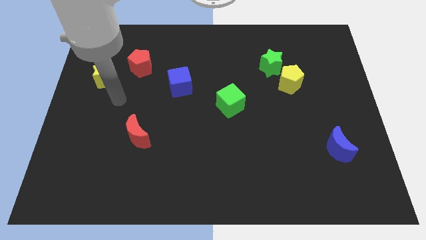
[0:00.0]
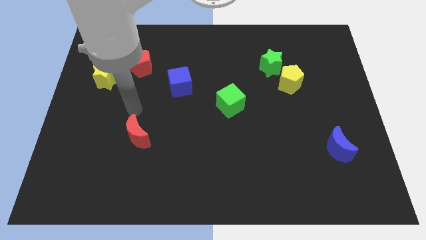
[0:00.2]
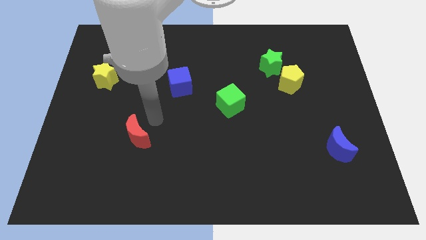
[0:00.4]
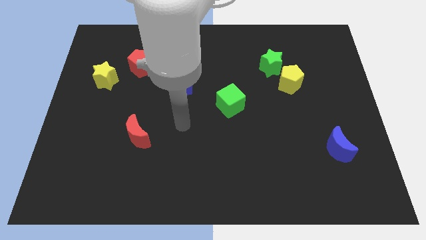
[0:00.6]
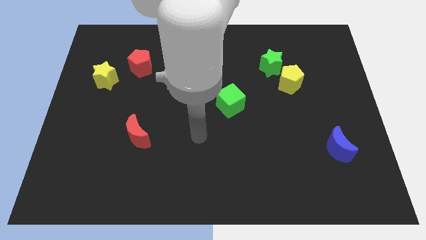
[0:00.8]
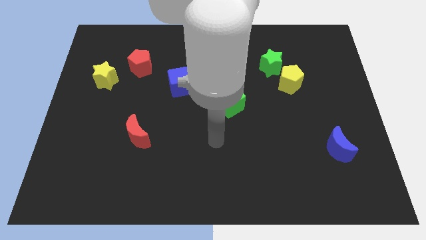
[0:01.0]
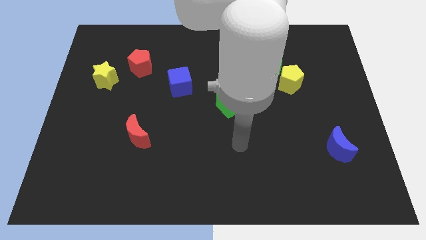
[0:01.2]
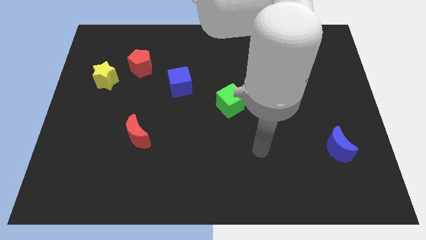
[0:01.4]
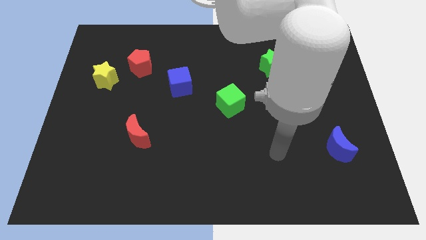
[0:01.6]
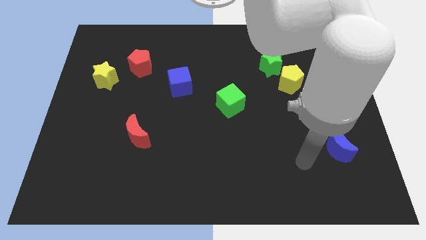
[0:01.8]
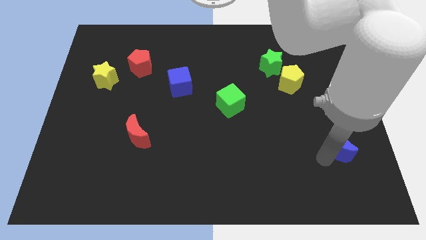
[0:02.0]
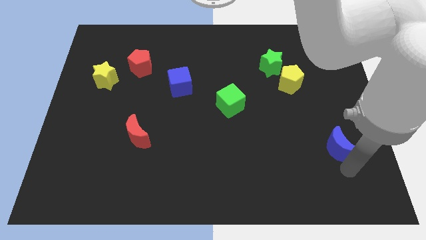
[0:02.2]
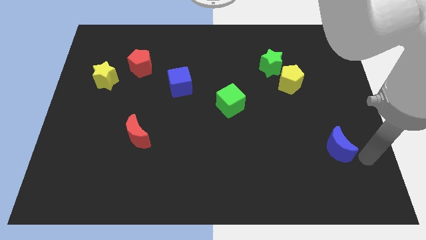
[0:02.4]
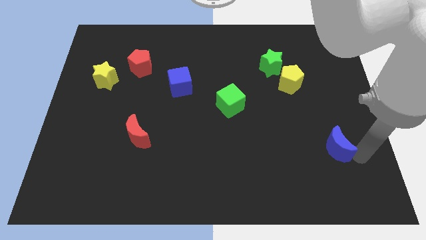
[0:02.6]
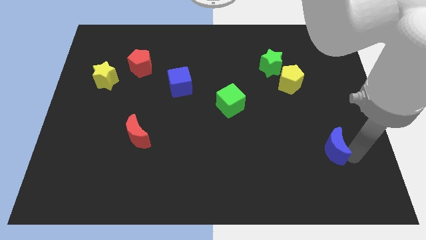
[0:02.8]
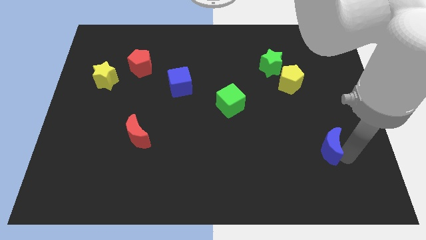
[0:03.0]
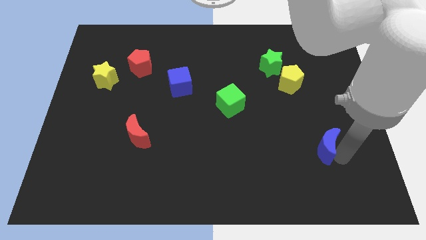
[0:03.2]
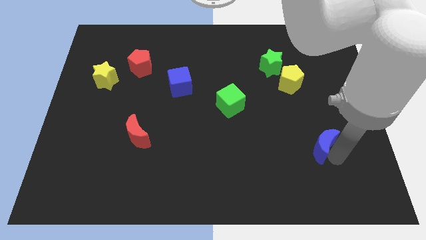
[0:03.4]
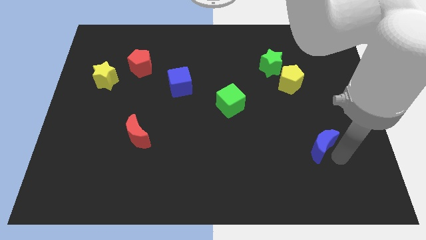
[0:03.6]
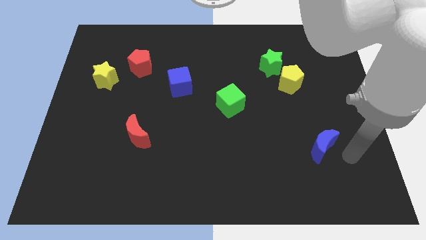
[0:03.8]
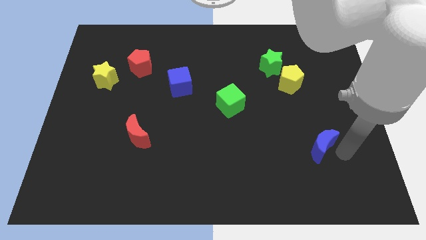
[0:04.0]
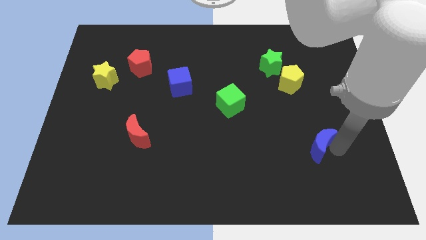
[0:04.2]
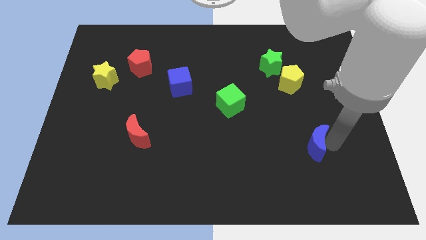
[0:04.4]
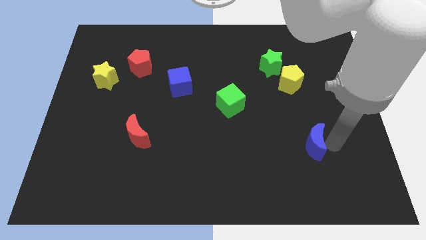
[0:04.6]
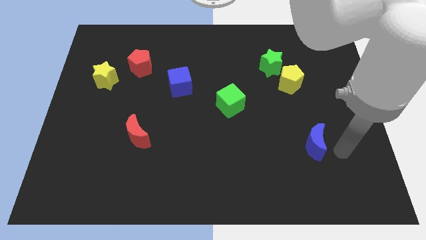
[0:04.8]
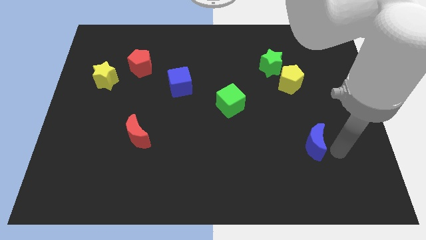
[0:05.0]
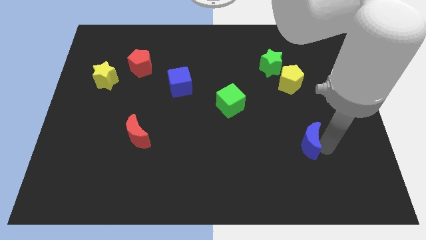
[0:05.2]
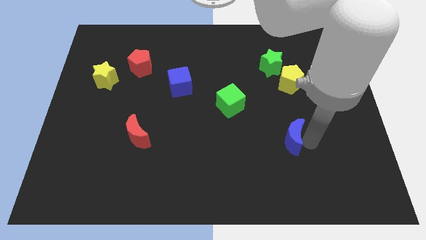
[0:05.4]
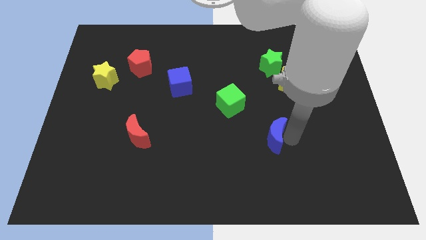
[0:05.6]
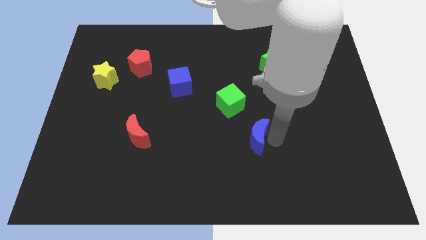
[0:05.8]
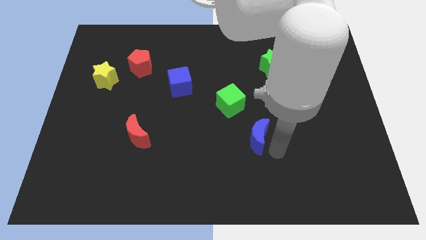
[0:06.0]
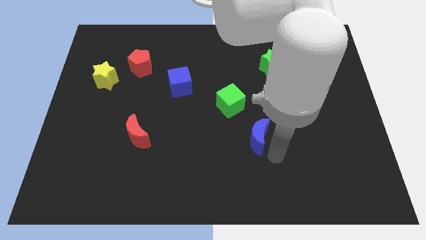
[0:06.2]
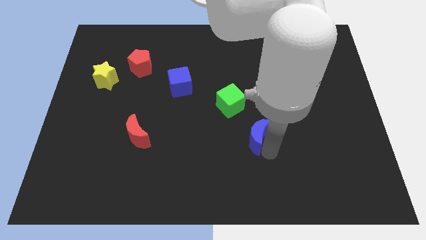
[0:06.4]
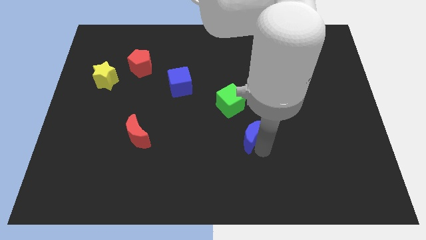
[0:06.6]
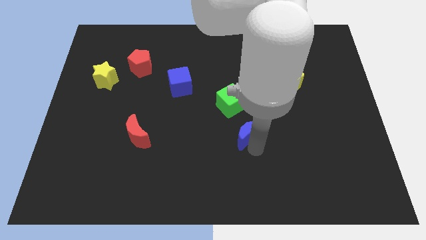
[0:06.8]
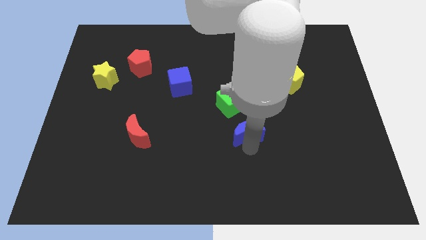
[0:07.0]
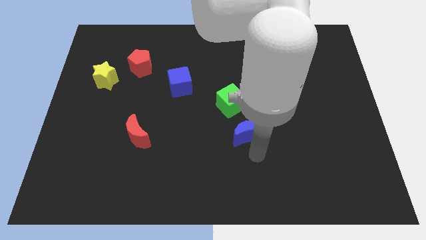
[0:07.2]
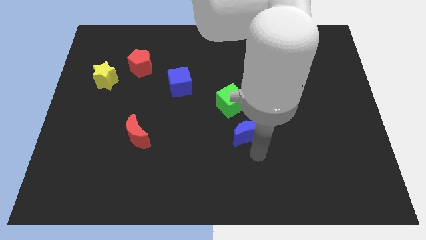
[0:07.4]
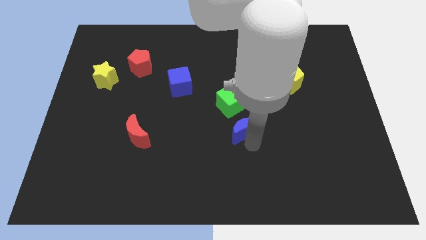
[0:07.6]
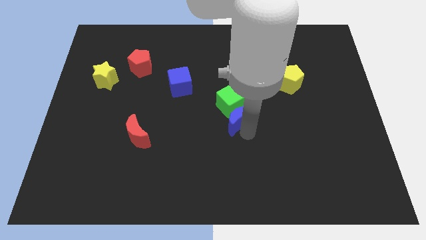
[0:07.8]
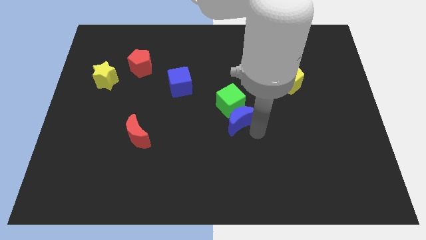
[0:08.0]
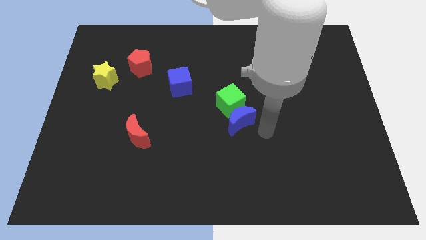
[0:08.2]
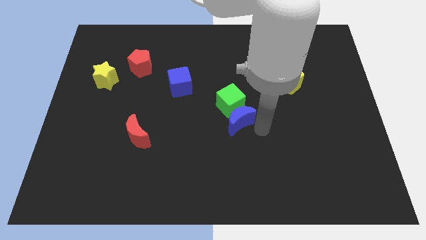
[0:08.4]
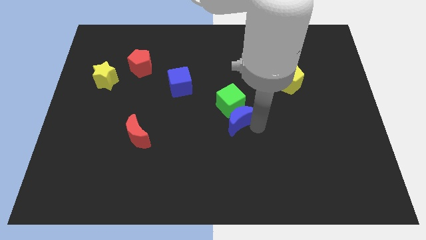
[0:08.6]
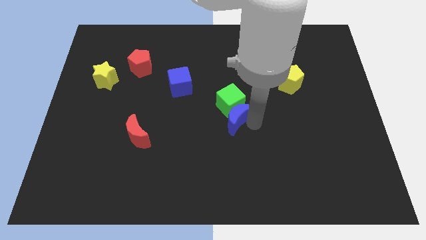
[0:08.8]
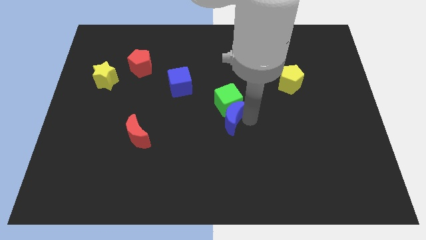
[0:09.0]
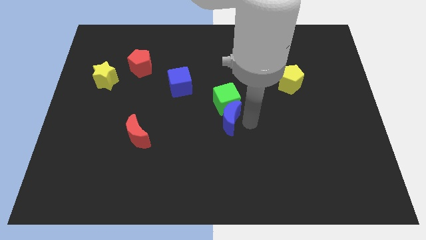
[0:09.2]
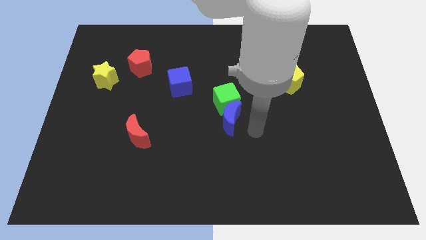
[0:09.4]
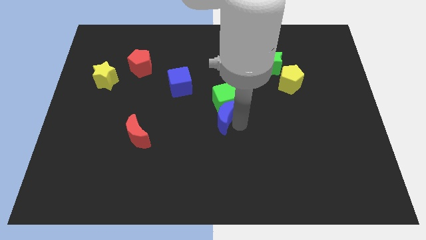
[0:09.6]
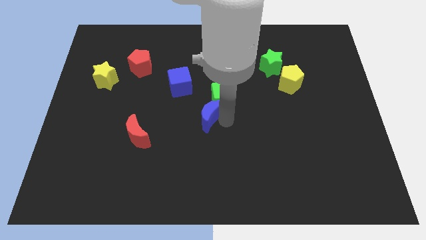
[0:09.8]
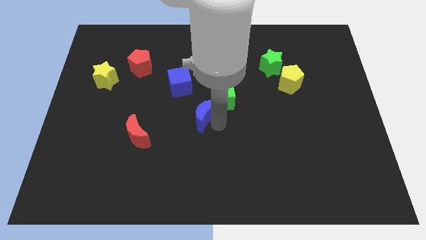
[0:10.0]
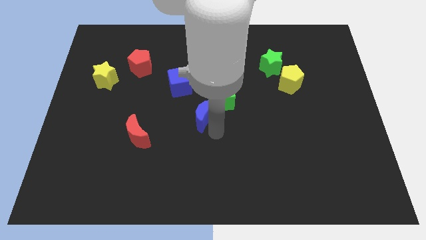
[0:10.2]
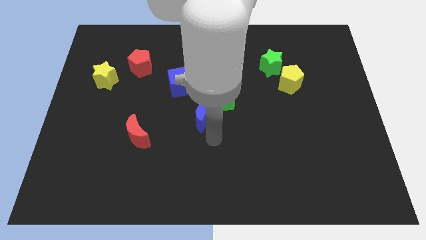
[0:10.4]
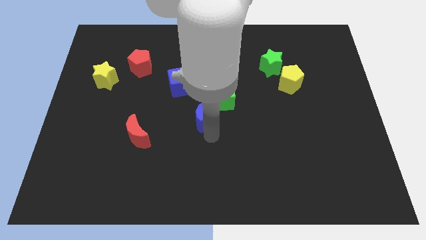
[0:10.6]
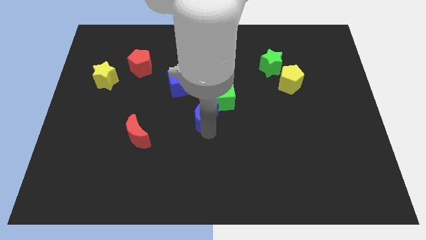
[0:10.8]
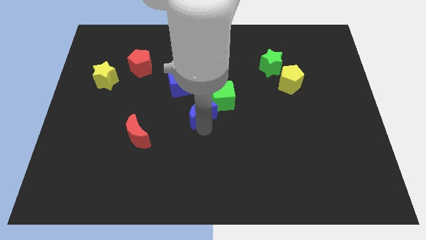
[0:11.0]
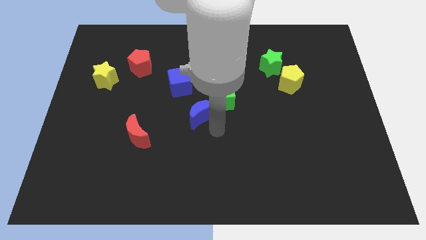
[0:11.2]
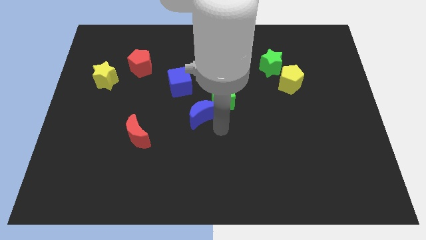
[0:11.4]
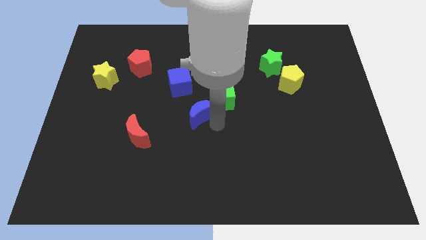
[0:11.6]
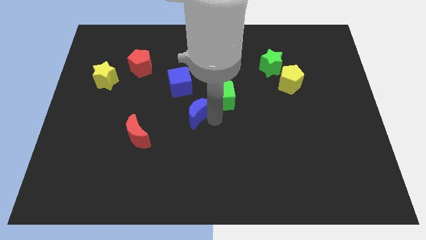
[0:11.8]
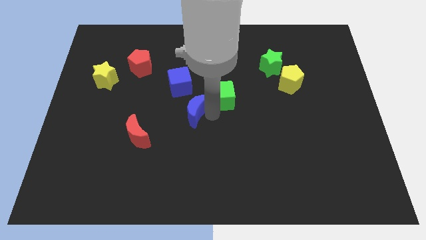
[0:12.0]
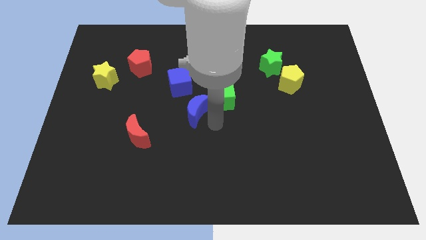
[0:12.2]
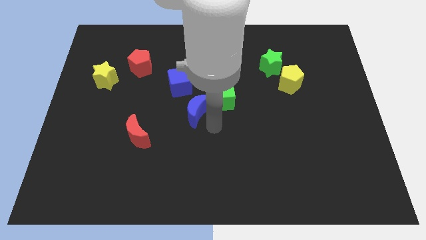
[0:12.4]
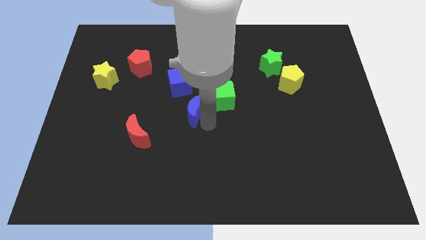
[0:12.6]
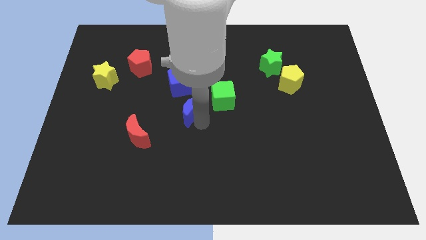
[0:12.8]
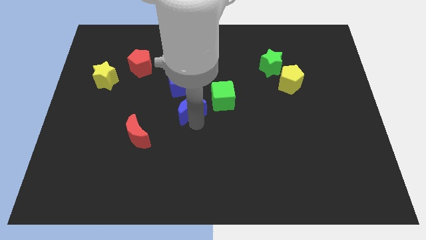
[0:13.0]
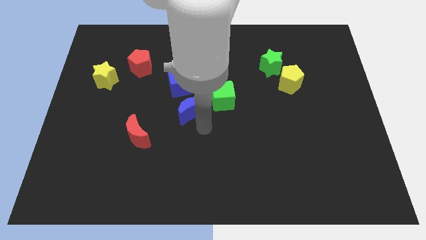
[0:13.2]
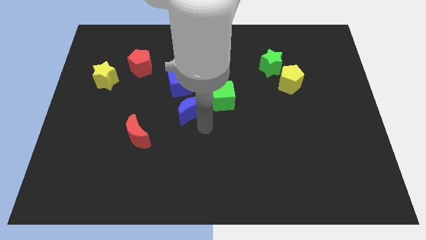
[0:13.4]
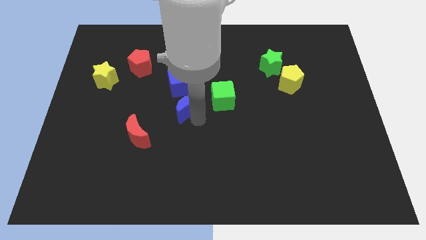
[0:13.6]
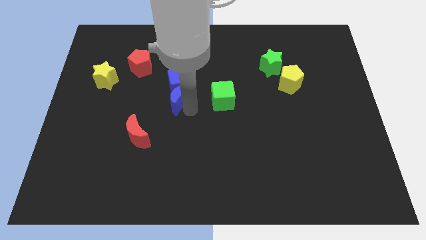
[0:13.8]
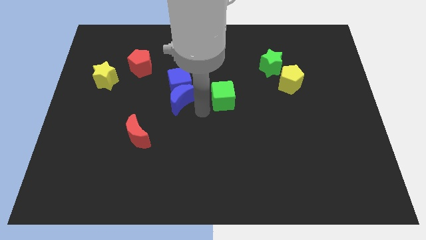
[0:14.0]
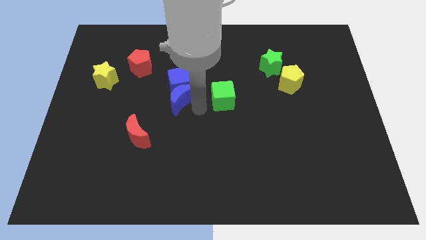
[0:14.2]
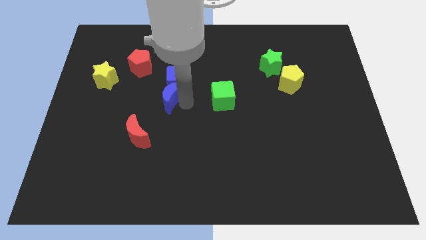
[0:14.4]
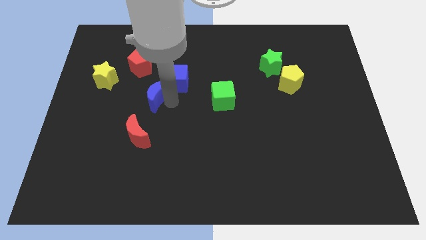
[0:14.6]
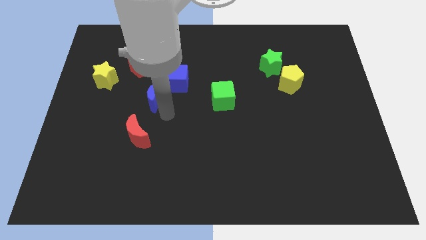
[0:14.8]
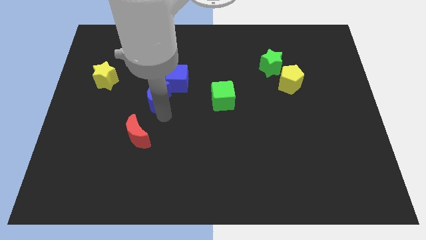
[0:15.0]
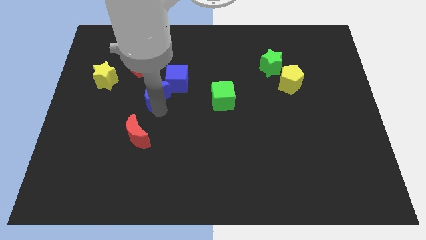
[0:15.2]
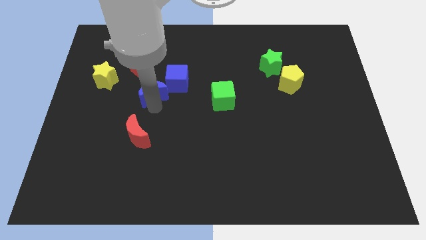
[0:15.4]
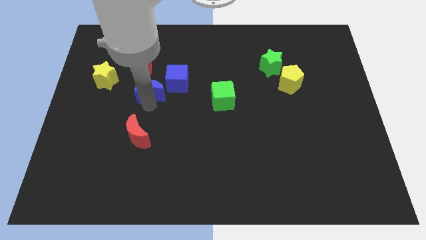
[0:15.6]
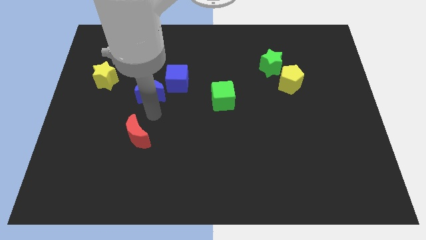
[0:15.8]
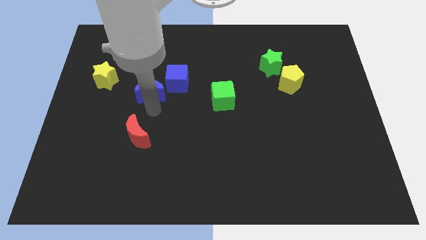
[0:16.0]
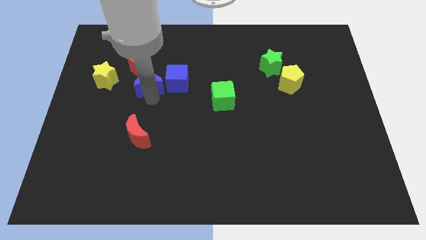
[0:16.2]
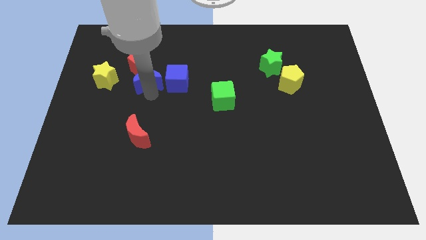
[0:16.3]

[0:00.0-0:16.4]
push the blue moon next to the red pentagon
